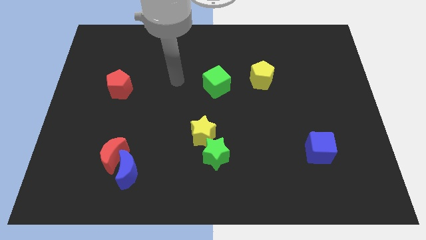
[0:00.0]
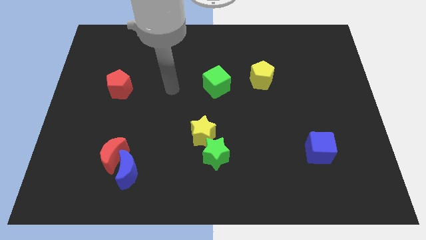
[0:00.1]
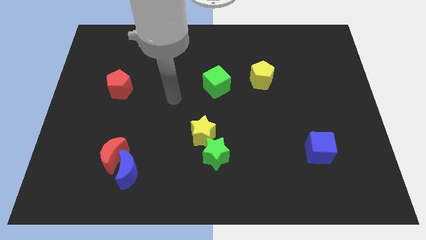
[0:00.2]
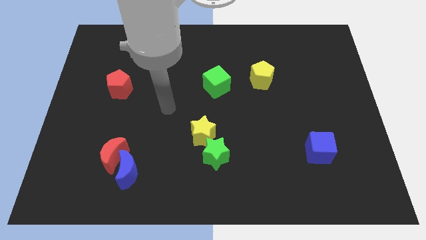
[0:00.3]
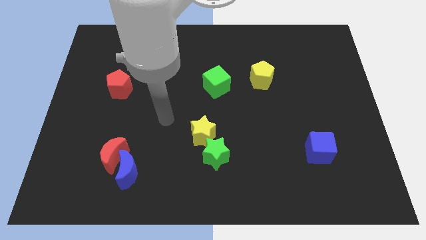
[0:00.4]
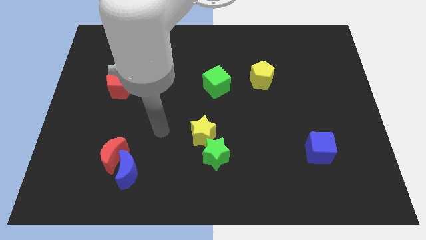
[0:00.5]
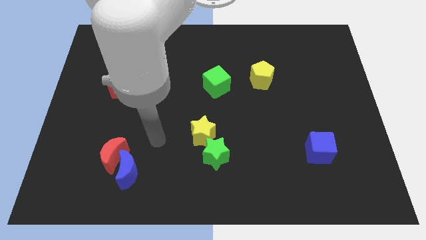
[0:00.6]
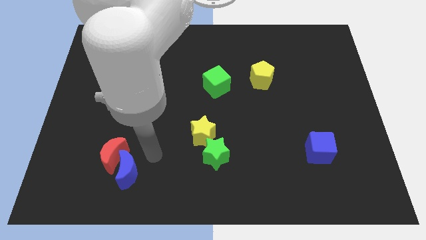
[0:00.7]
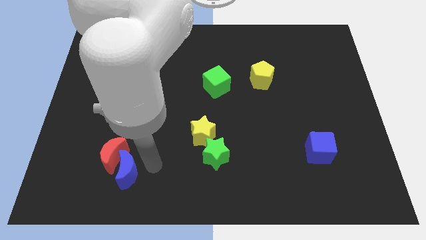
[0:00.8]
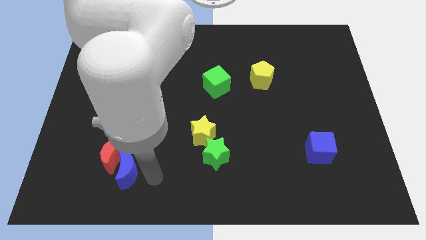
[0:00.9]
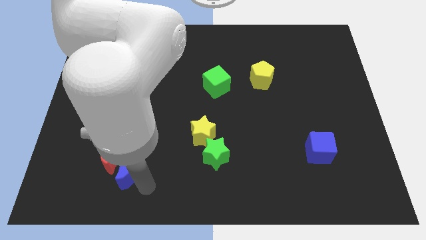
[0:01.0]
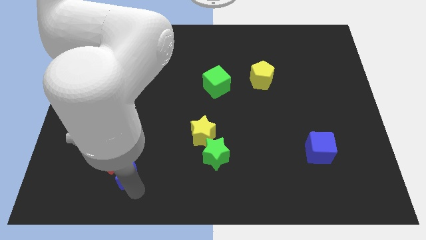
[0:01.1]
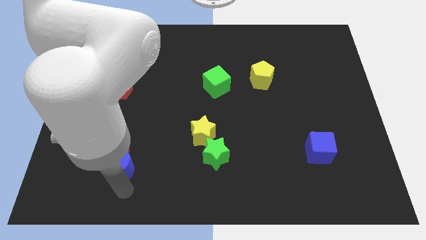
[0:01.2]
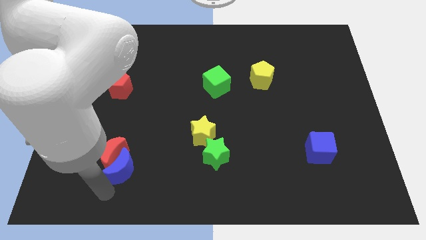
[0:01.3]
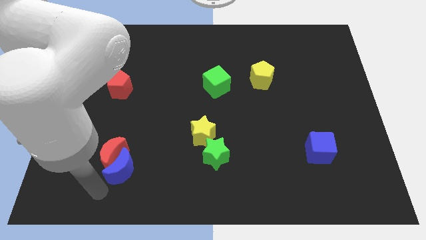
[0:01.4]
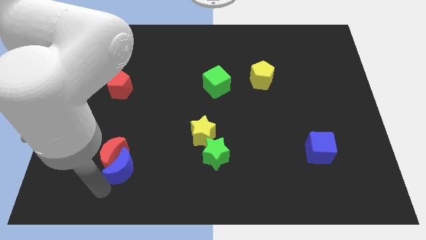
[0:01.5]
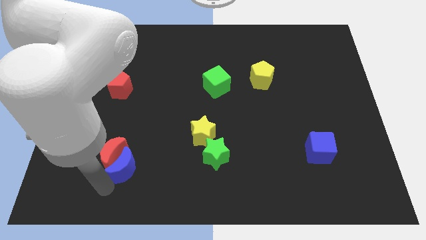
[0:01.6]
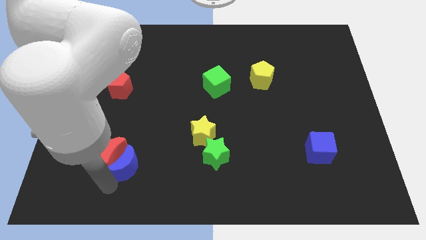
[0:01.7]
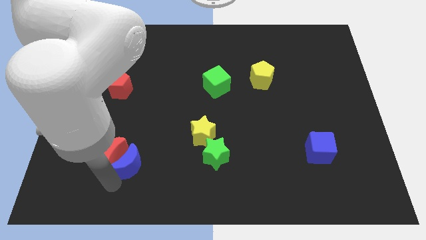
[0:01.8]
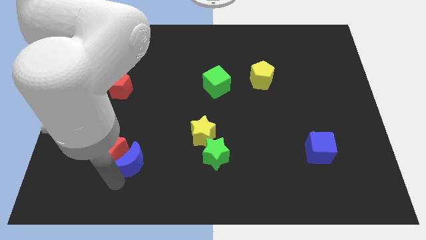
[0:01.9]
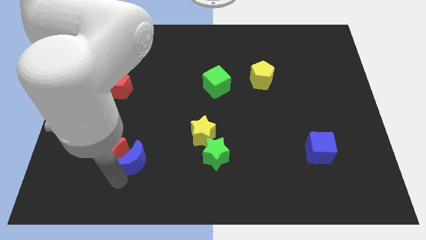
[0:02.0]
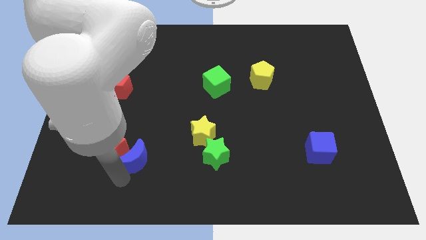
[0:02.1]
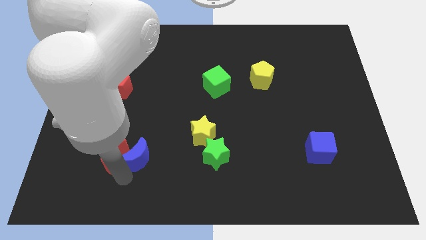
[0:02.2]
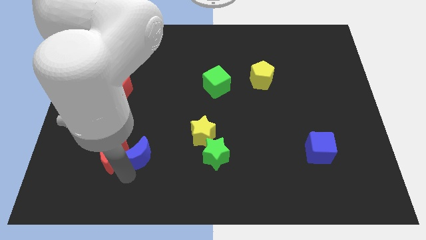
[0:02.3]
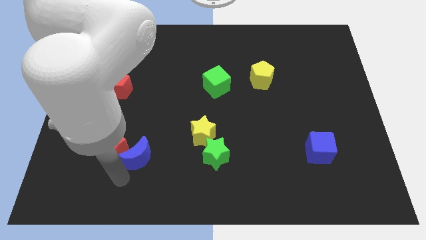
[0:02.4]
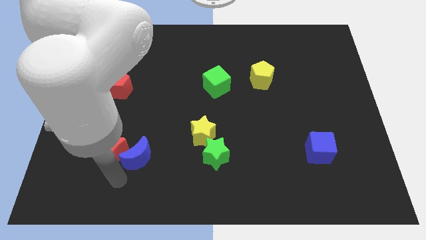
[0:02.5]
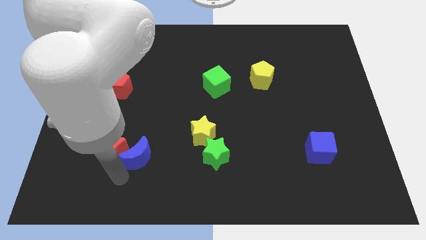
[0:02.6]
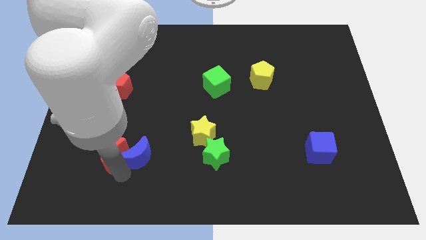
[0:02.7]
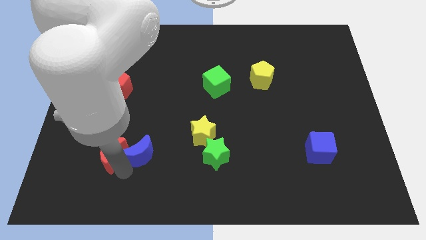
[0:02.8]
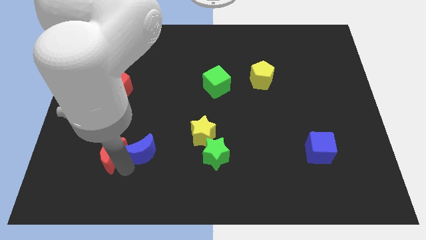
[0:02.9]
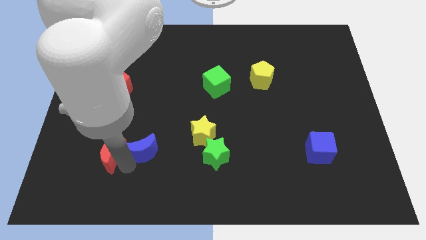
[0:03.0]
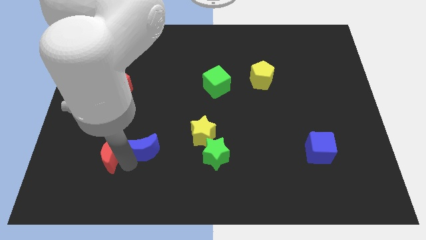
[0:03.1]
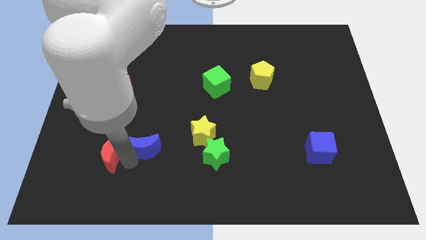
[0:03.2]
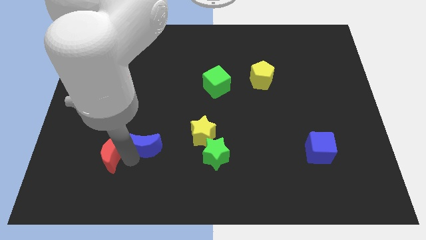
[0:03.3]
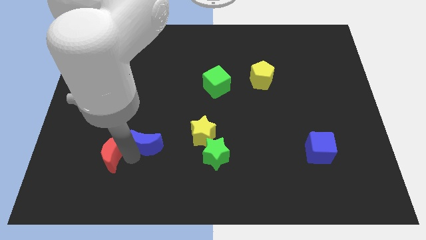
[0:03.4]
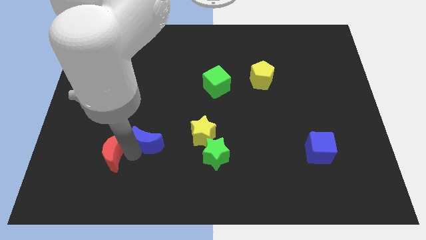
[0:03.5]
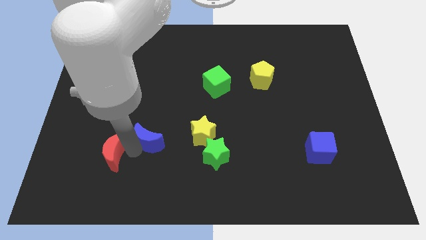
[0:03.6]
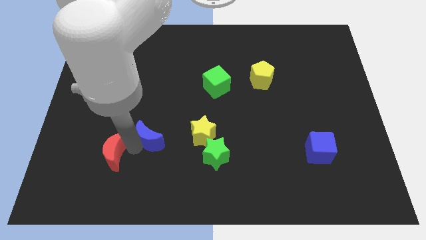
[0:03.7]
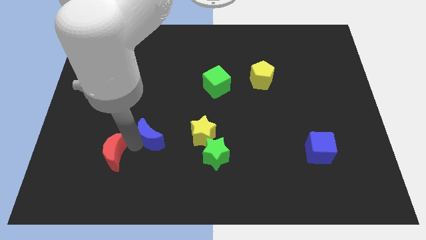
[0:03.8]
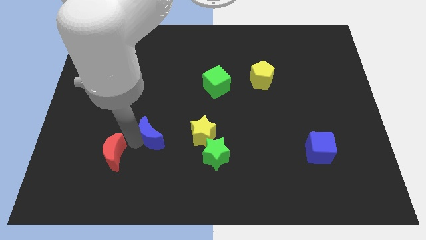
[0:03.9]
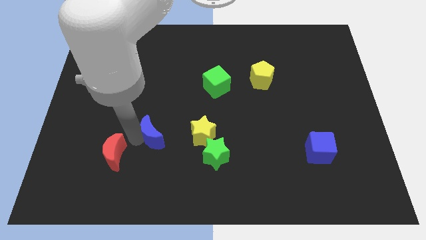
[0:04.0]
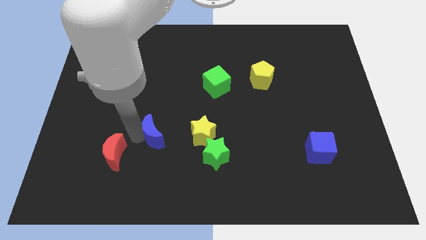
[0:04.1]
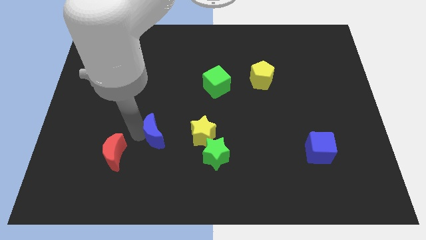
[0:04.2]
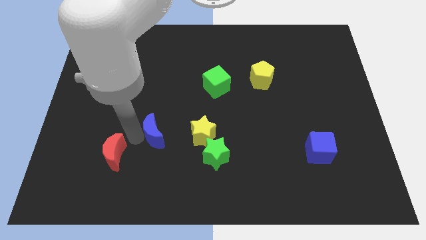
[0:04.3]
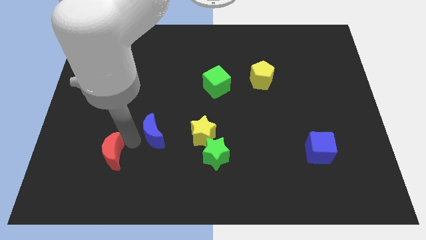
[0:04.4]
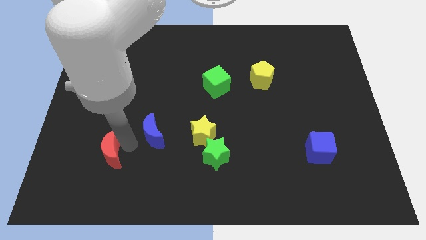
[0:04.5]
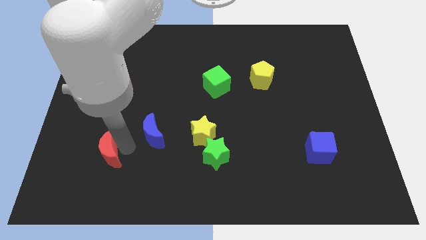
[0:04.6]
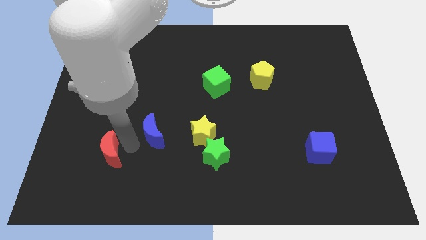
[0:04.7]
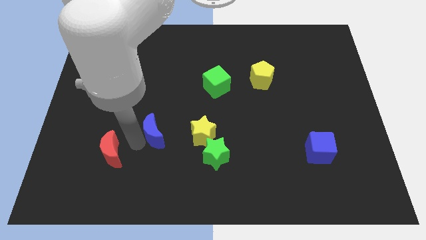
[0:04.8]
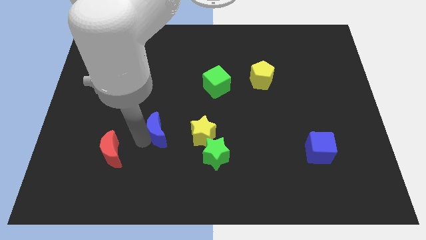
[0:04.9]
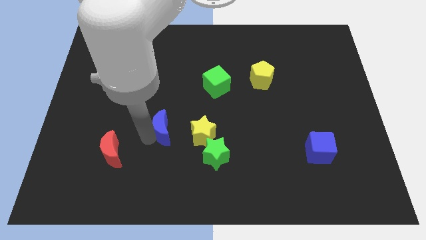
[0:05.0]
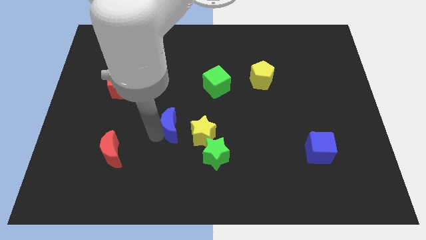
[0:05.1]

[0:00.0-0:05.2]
put the blue moon diagonally up and to the left of the yellow star

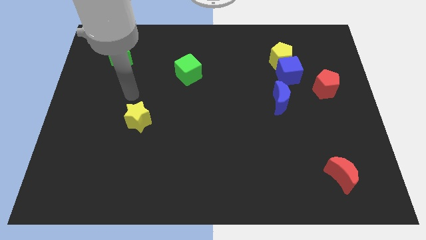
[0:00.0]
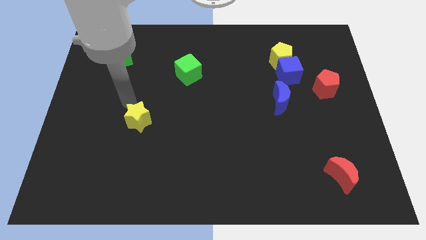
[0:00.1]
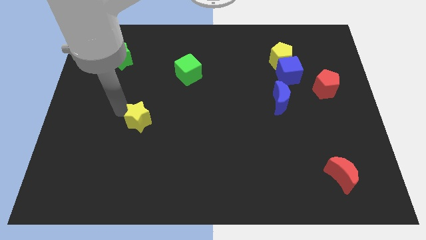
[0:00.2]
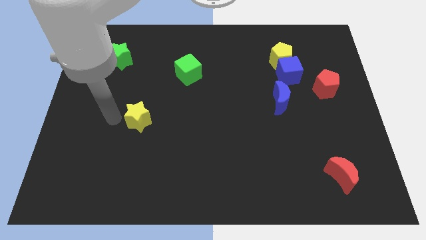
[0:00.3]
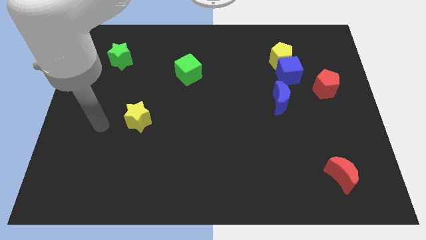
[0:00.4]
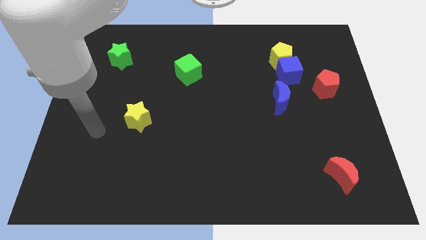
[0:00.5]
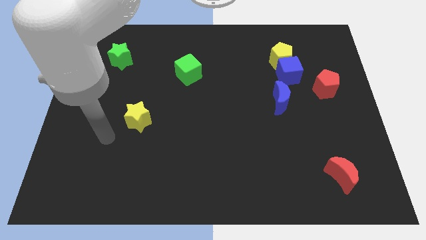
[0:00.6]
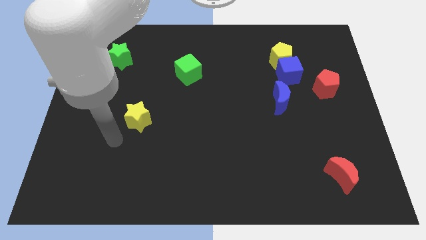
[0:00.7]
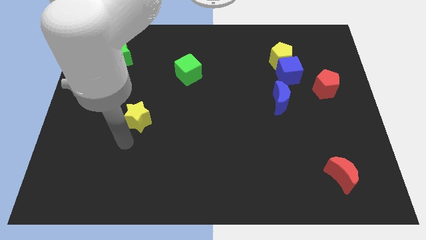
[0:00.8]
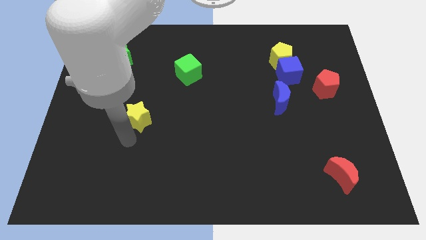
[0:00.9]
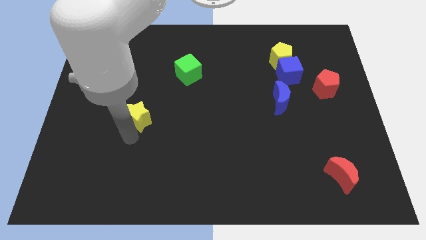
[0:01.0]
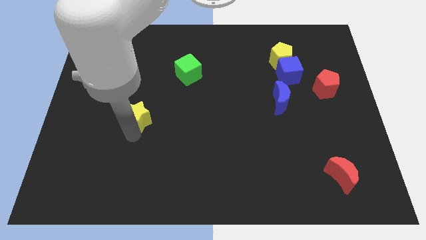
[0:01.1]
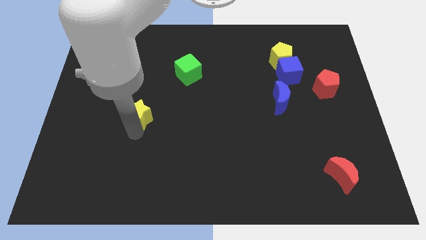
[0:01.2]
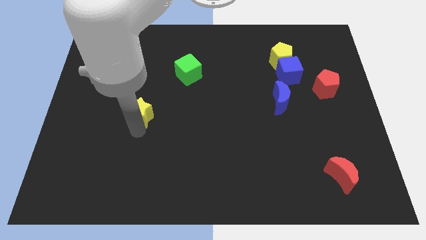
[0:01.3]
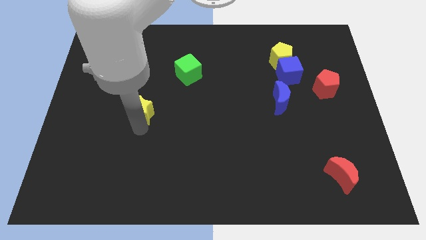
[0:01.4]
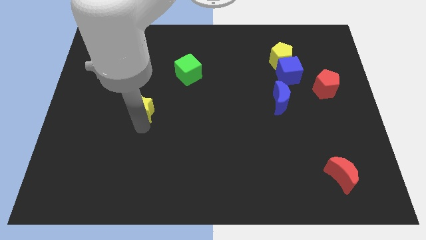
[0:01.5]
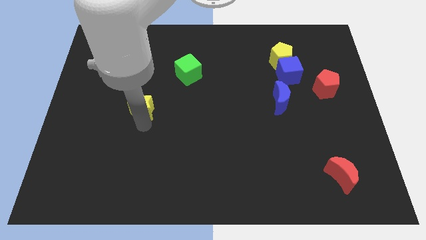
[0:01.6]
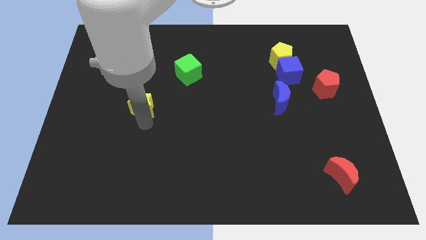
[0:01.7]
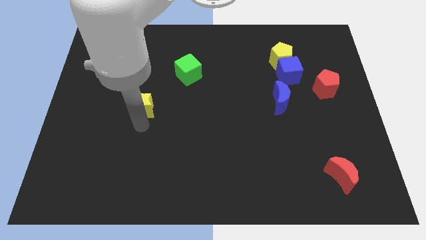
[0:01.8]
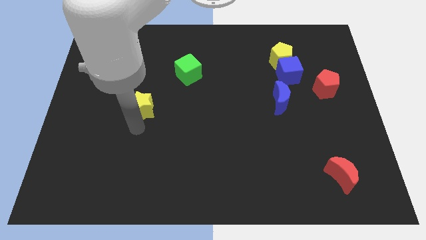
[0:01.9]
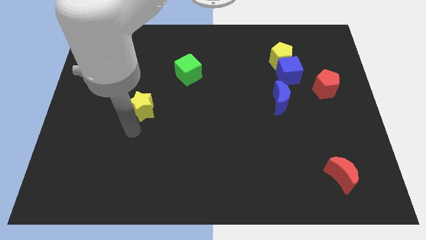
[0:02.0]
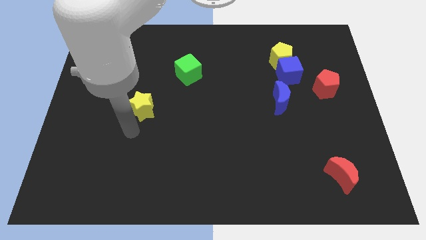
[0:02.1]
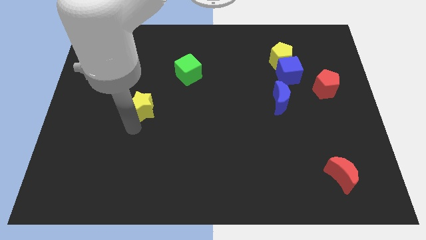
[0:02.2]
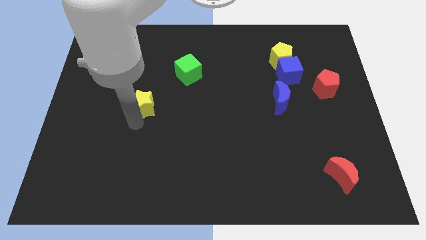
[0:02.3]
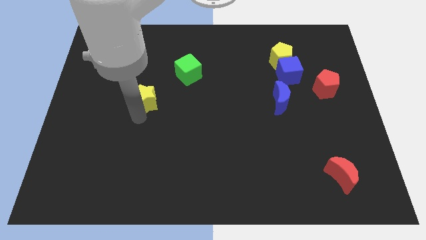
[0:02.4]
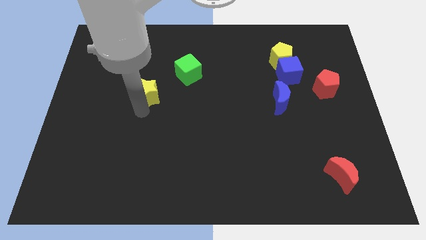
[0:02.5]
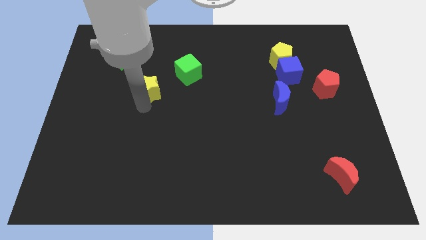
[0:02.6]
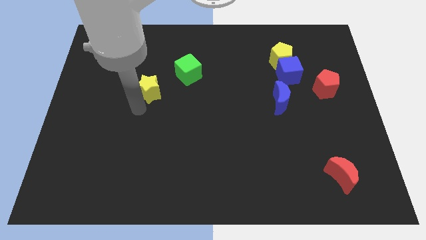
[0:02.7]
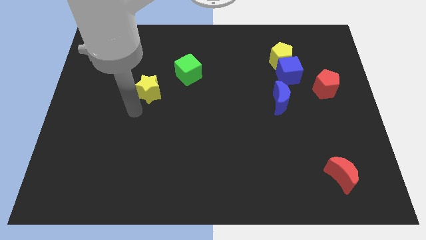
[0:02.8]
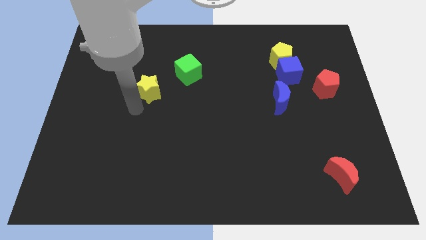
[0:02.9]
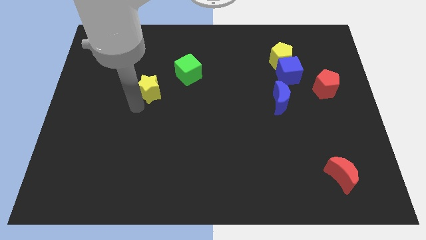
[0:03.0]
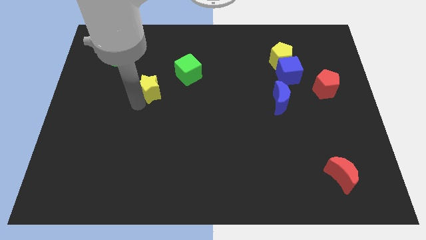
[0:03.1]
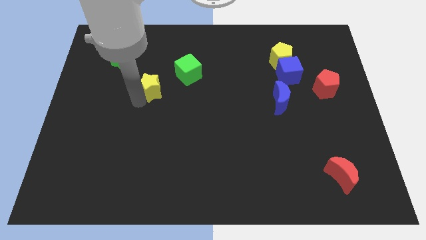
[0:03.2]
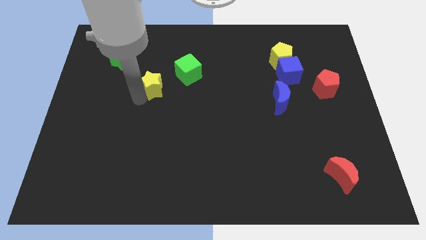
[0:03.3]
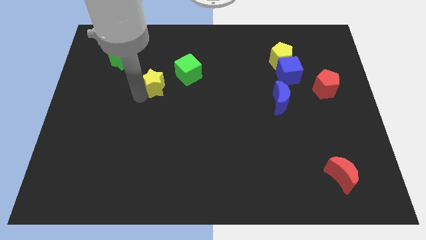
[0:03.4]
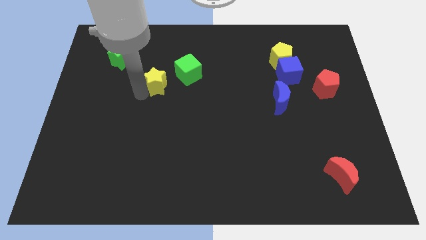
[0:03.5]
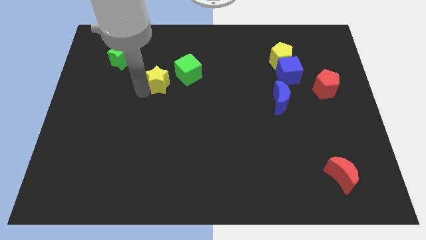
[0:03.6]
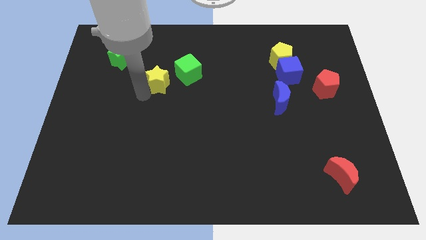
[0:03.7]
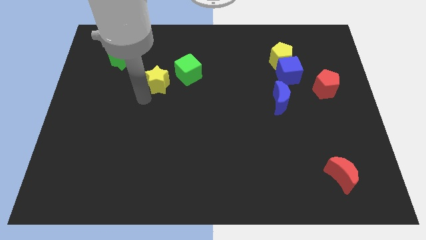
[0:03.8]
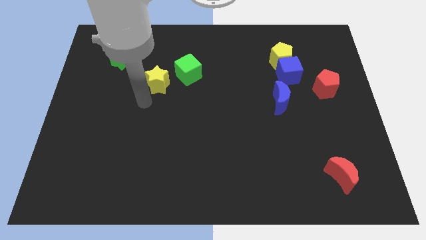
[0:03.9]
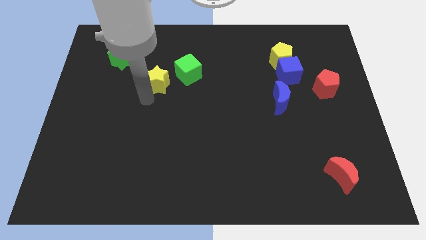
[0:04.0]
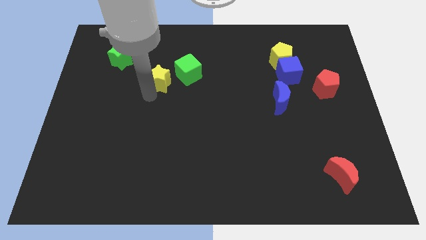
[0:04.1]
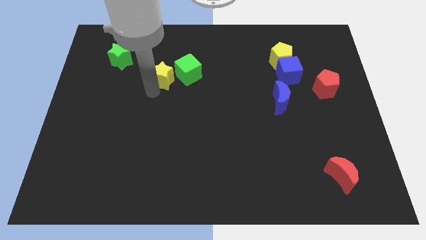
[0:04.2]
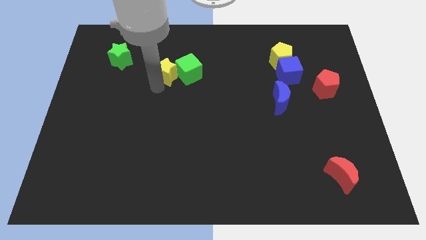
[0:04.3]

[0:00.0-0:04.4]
slide the yellow star diagonally up and to the left of the green cube
